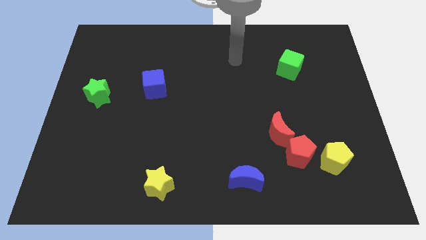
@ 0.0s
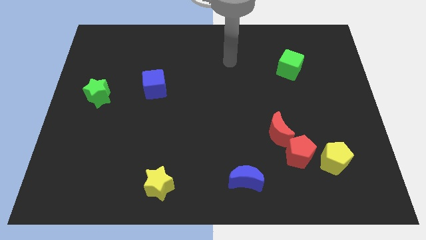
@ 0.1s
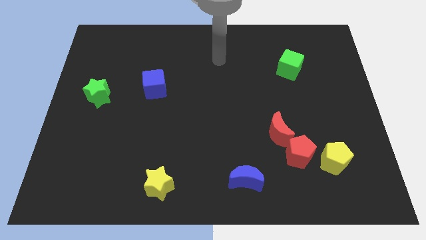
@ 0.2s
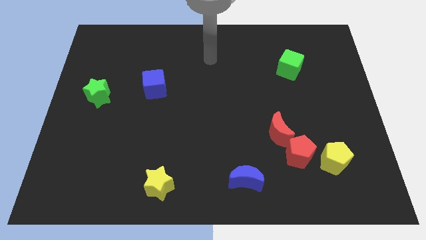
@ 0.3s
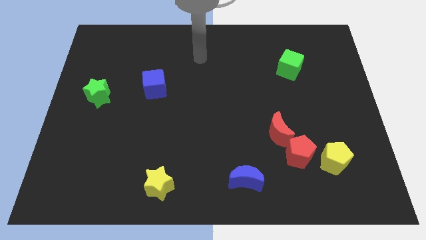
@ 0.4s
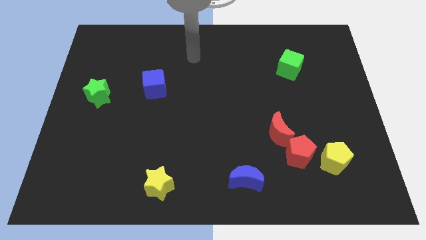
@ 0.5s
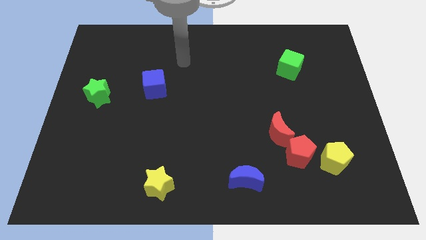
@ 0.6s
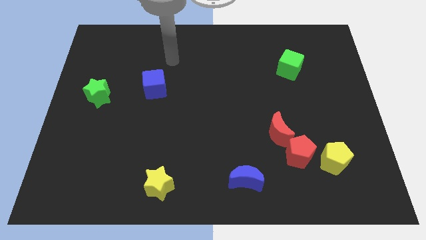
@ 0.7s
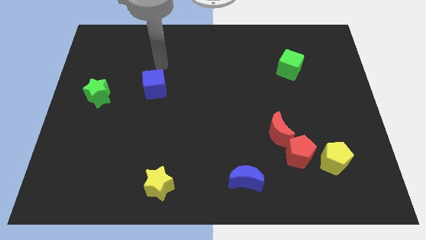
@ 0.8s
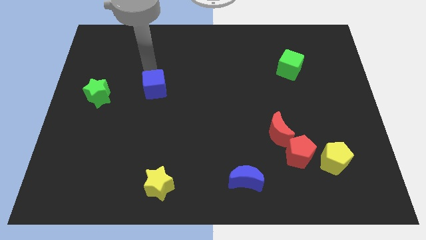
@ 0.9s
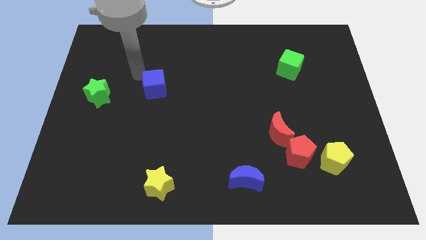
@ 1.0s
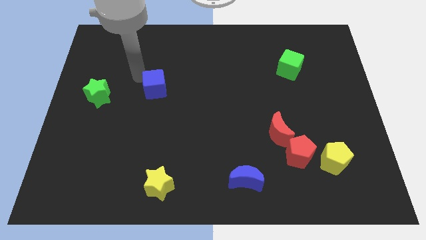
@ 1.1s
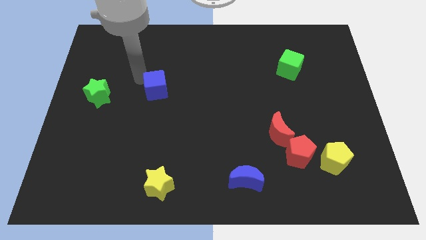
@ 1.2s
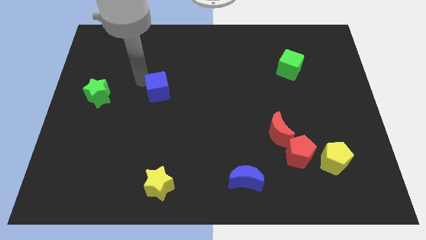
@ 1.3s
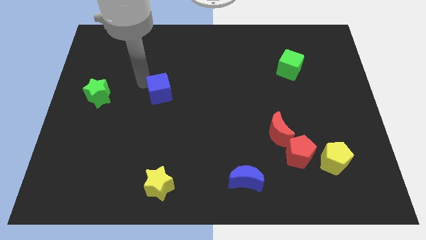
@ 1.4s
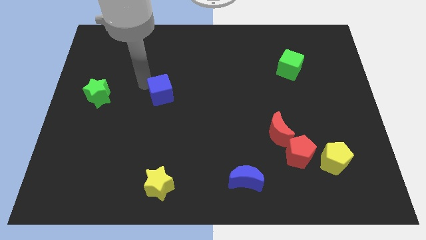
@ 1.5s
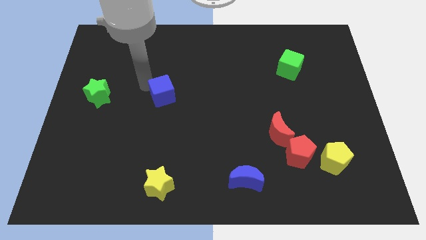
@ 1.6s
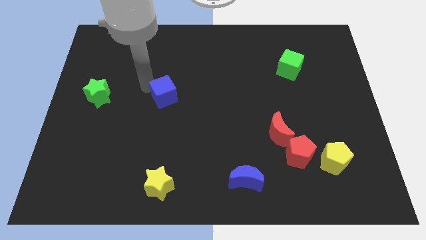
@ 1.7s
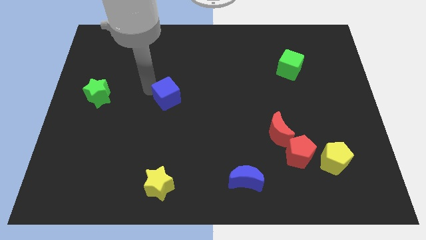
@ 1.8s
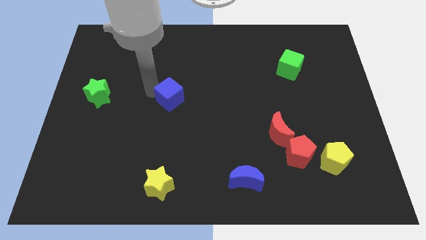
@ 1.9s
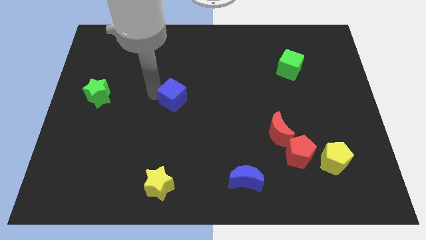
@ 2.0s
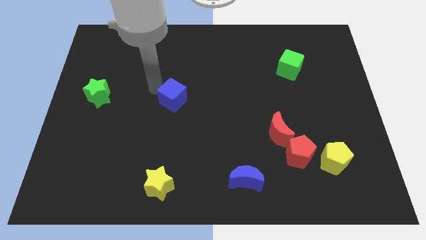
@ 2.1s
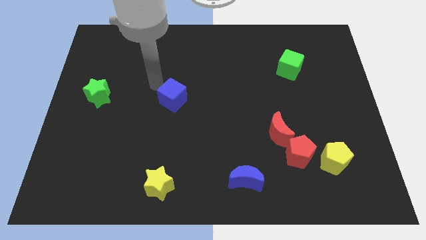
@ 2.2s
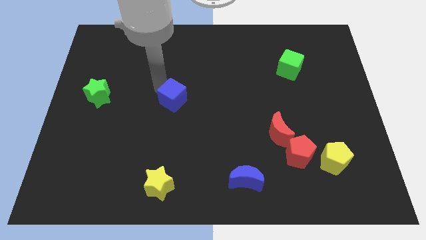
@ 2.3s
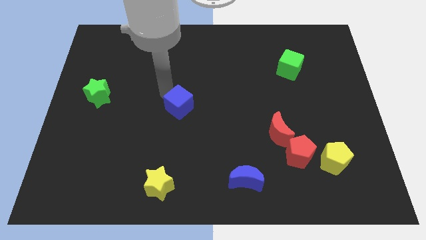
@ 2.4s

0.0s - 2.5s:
move the blue cube somewhat down and to the right

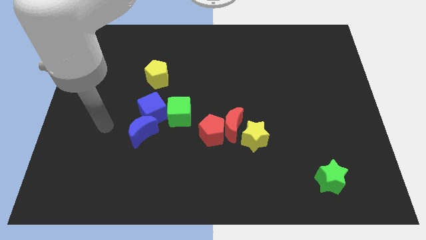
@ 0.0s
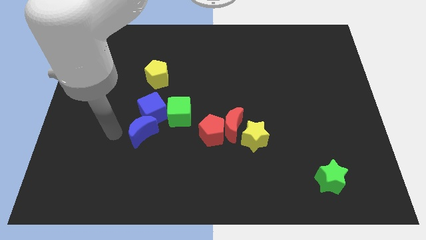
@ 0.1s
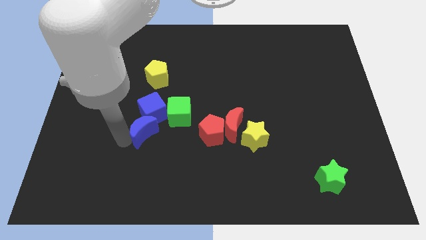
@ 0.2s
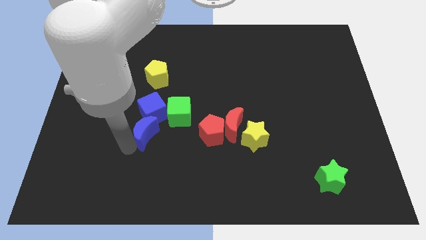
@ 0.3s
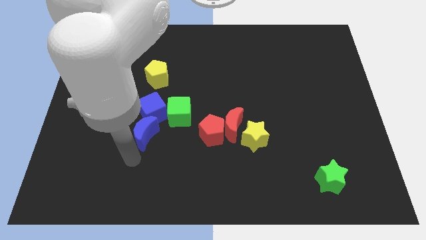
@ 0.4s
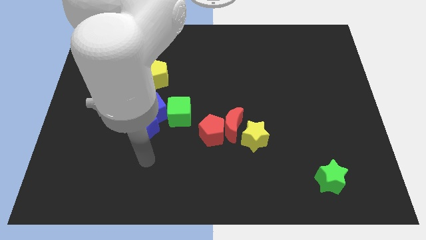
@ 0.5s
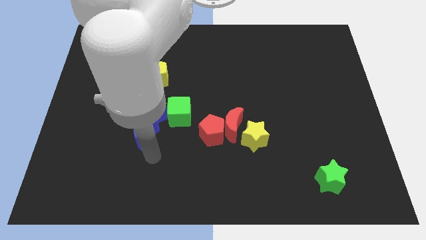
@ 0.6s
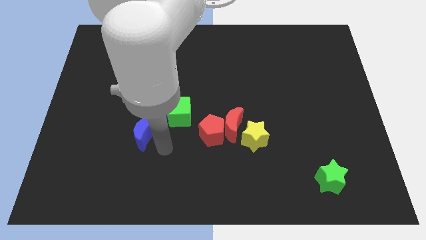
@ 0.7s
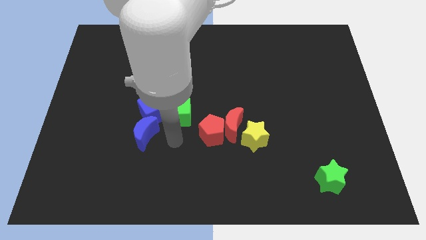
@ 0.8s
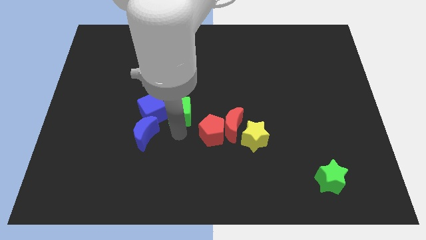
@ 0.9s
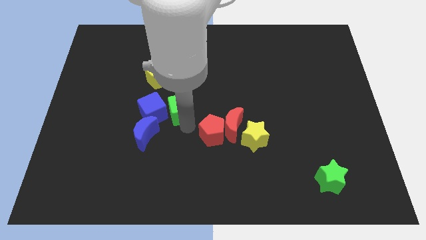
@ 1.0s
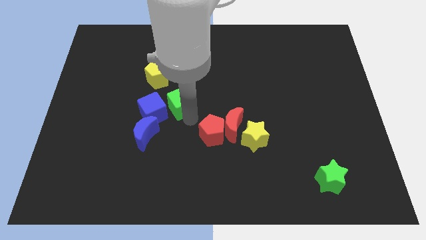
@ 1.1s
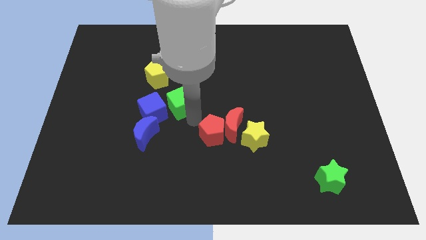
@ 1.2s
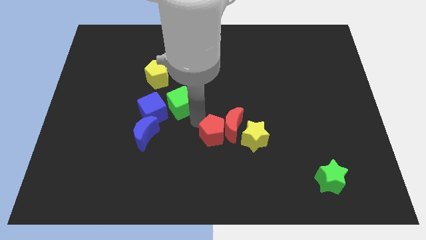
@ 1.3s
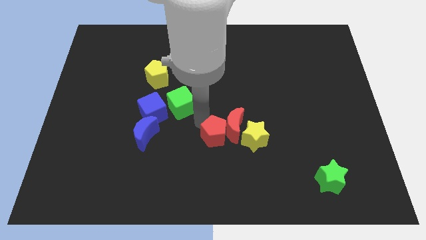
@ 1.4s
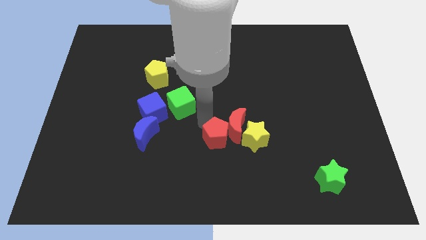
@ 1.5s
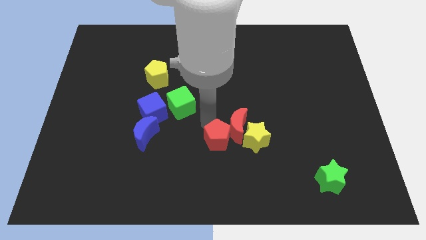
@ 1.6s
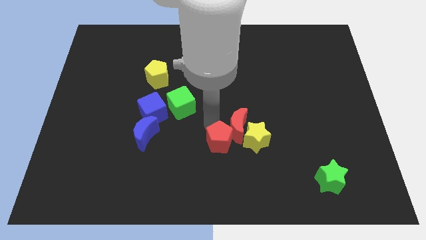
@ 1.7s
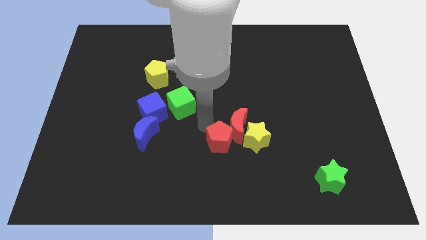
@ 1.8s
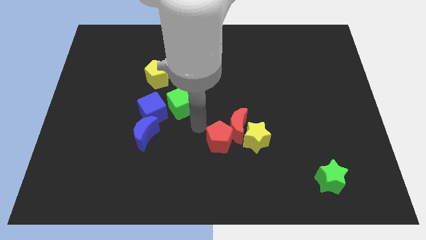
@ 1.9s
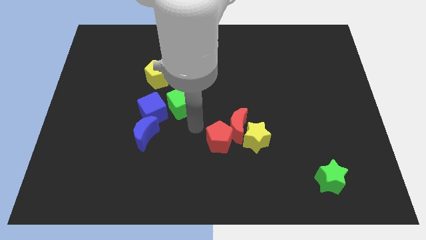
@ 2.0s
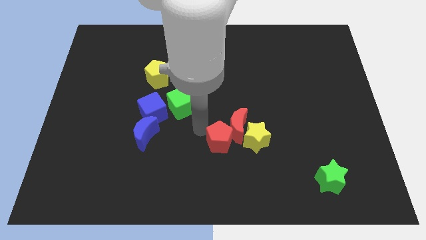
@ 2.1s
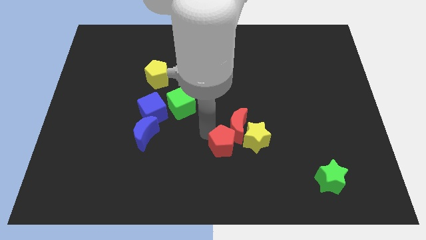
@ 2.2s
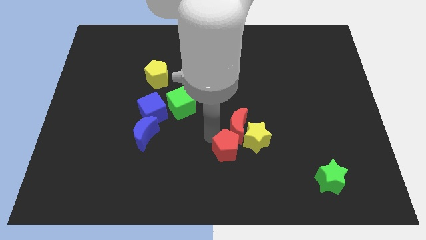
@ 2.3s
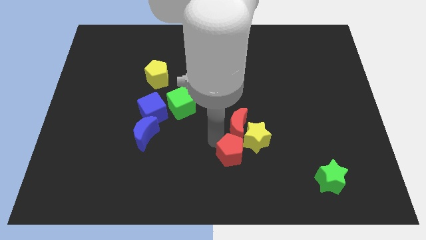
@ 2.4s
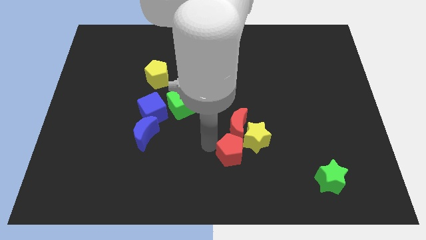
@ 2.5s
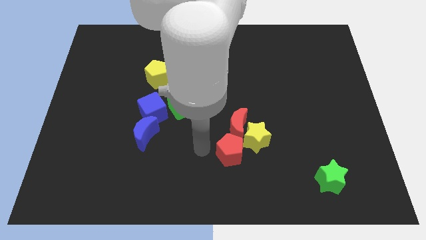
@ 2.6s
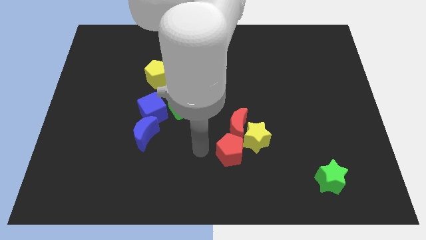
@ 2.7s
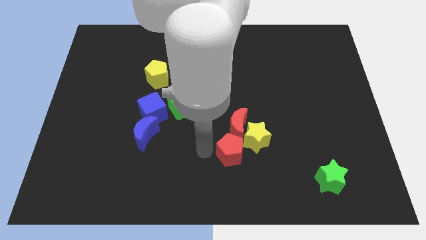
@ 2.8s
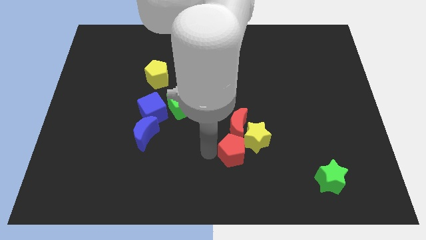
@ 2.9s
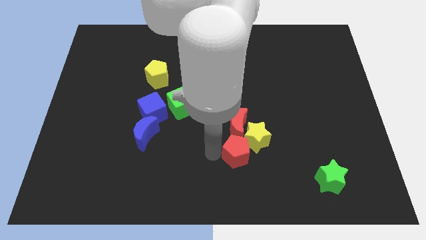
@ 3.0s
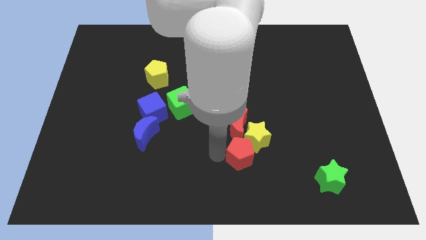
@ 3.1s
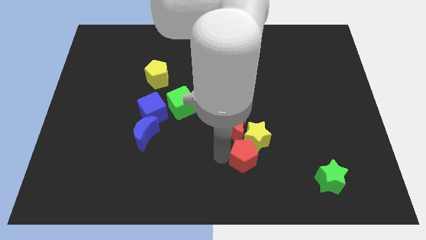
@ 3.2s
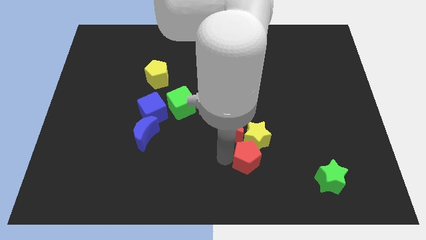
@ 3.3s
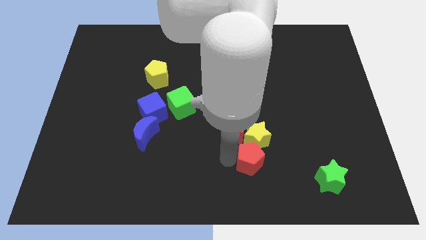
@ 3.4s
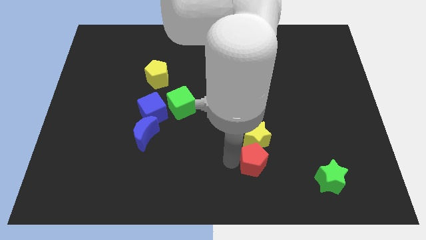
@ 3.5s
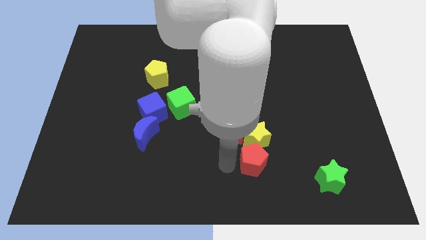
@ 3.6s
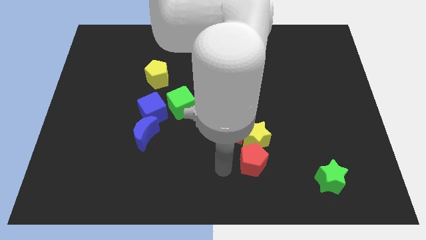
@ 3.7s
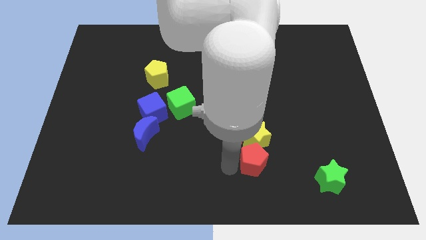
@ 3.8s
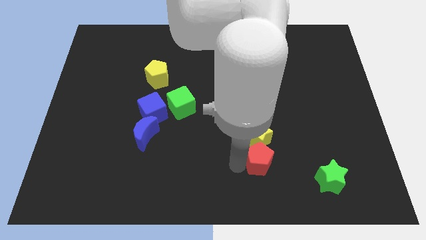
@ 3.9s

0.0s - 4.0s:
push the red pentagon right a little

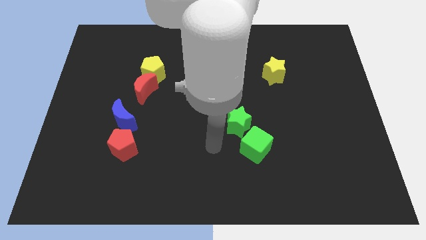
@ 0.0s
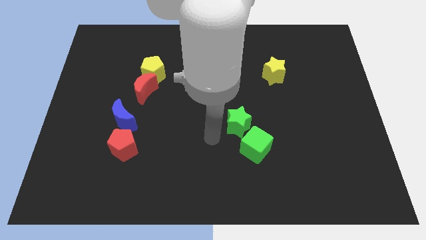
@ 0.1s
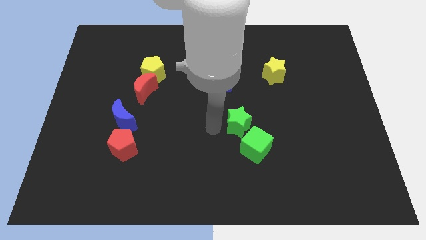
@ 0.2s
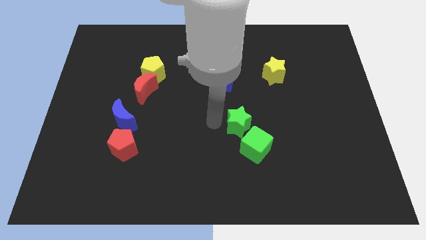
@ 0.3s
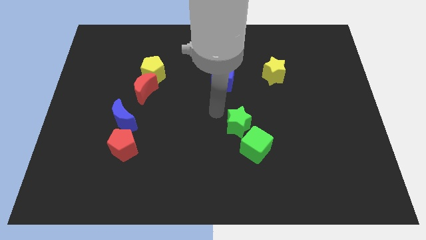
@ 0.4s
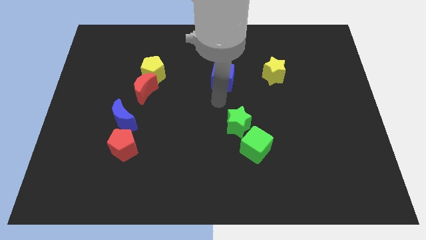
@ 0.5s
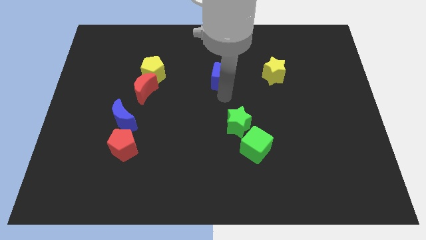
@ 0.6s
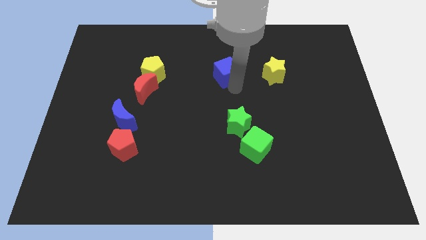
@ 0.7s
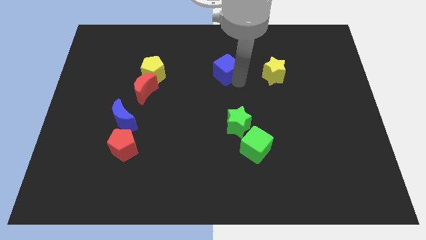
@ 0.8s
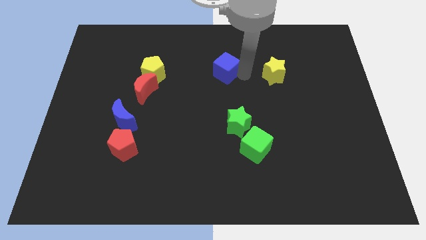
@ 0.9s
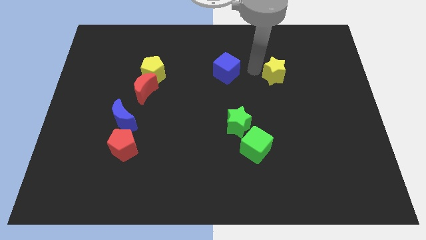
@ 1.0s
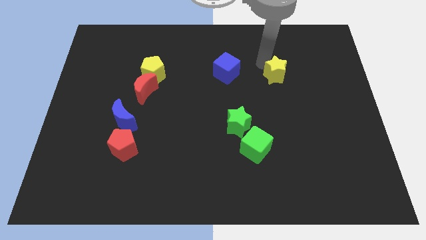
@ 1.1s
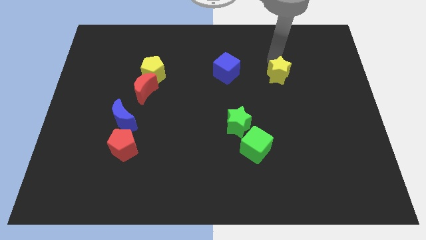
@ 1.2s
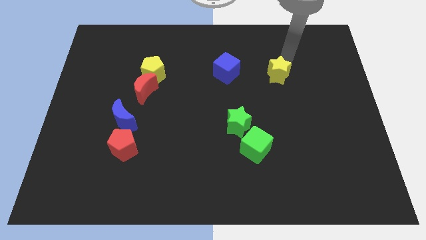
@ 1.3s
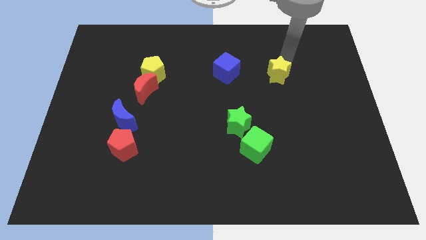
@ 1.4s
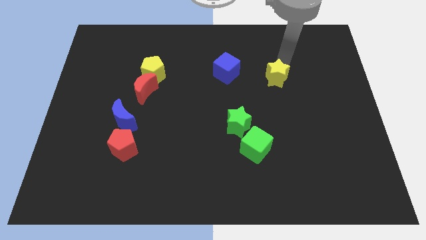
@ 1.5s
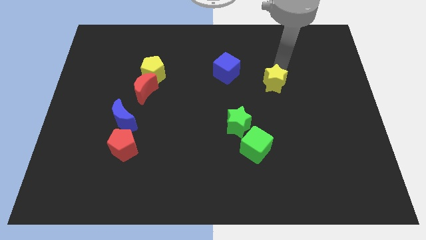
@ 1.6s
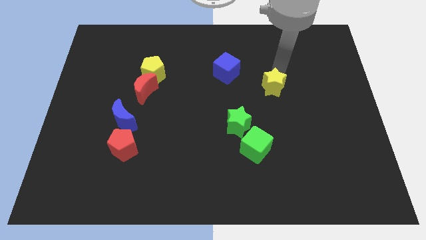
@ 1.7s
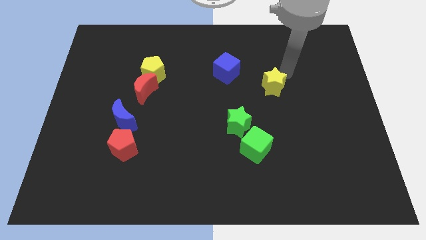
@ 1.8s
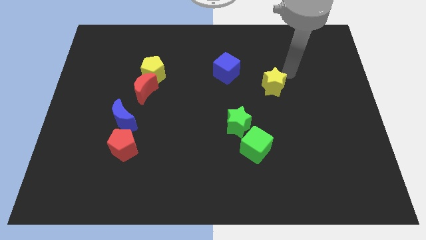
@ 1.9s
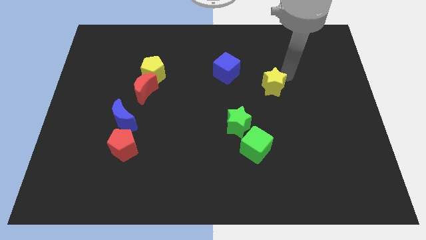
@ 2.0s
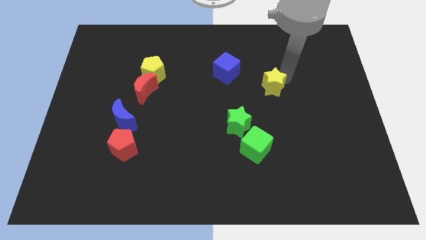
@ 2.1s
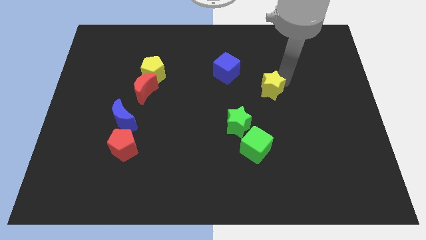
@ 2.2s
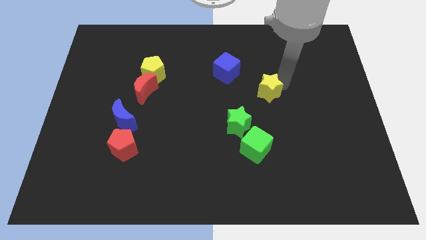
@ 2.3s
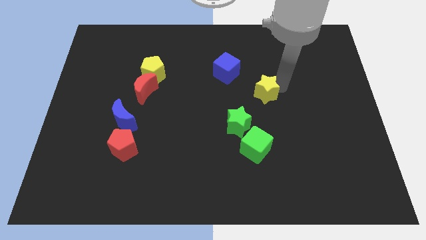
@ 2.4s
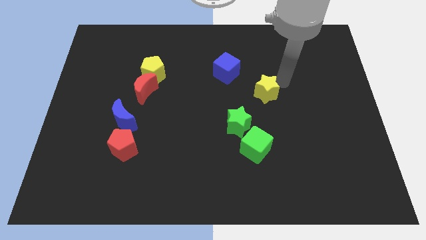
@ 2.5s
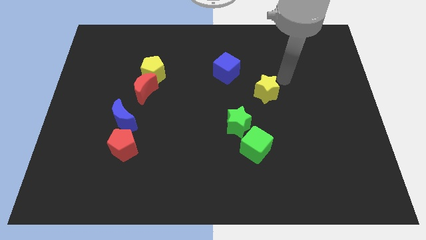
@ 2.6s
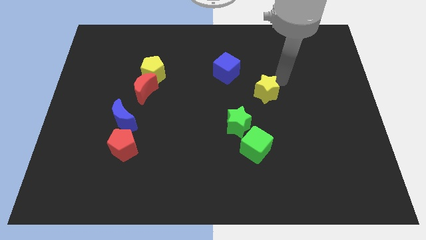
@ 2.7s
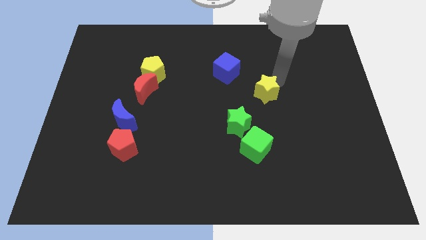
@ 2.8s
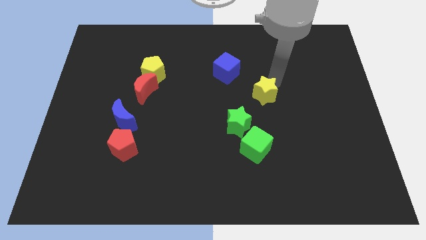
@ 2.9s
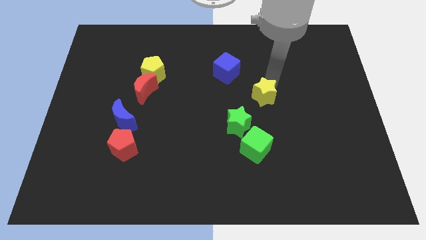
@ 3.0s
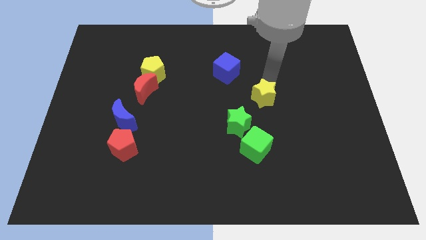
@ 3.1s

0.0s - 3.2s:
slightly slide the yellow star downwards and left
